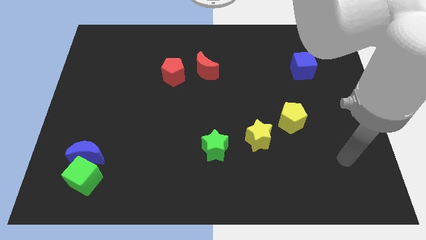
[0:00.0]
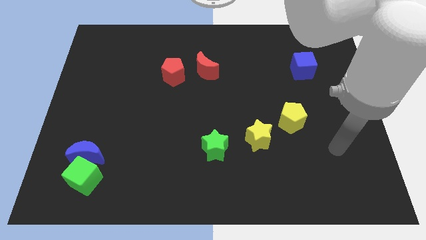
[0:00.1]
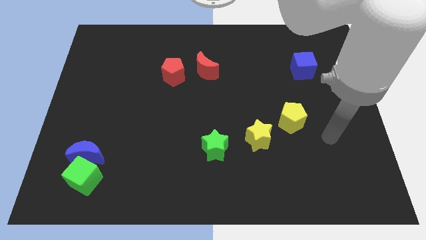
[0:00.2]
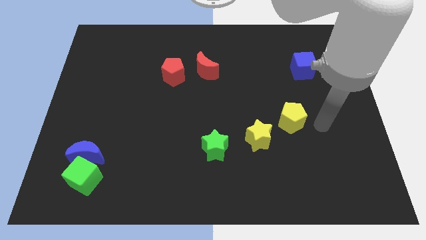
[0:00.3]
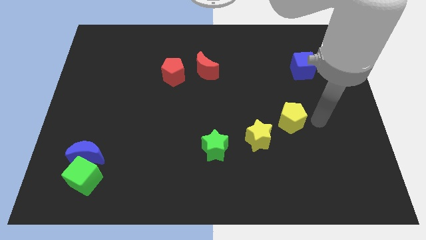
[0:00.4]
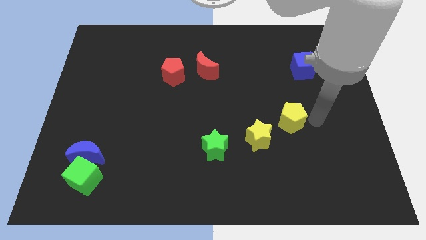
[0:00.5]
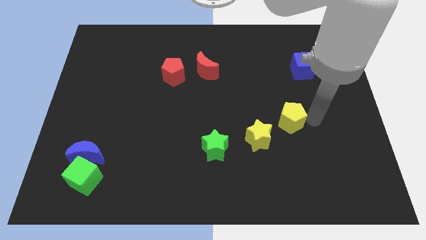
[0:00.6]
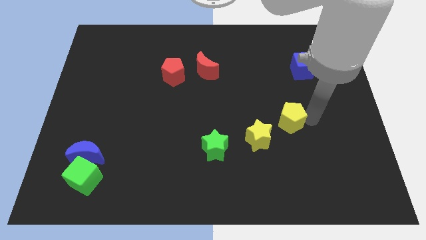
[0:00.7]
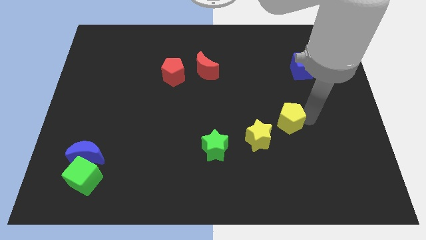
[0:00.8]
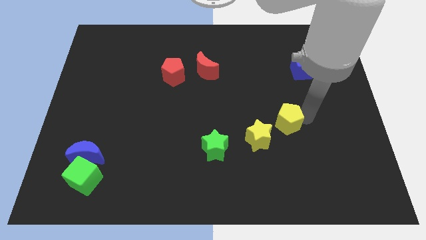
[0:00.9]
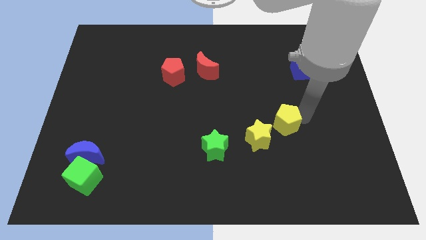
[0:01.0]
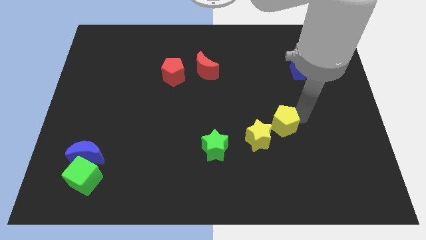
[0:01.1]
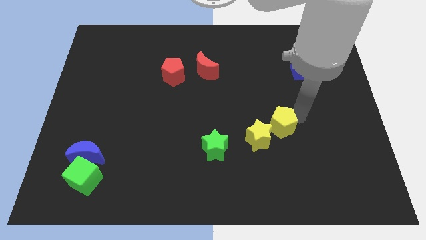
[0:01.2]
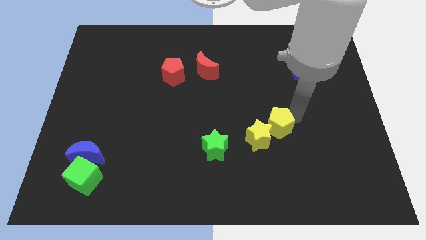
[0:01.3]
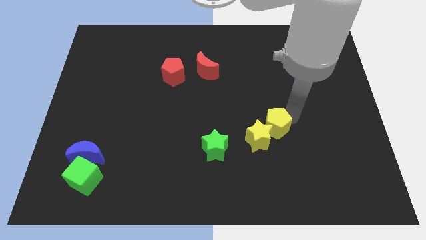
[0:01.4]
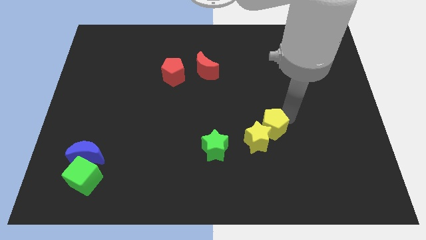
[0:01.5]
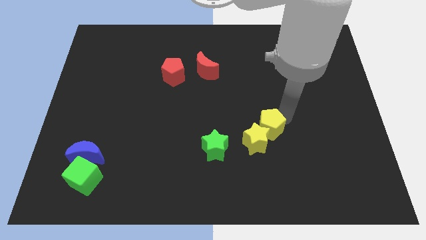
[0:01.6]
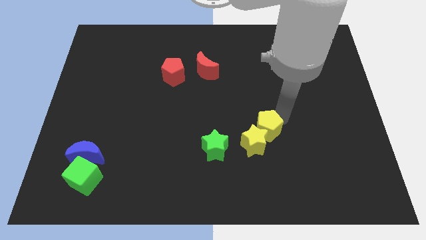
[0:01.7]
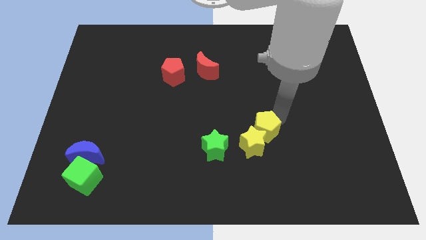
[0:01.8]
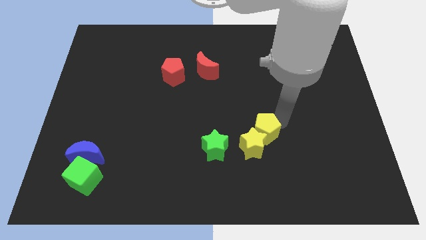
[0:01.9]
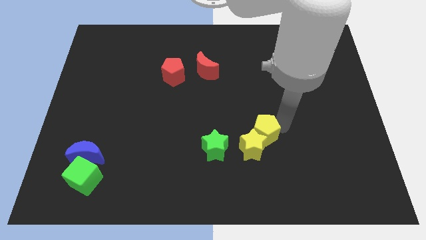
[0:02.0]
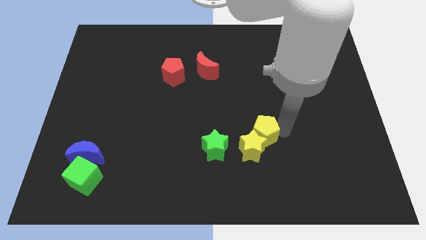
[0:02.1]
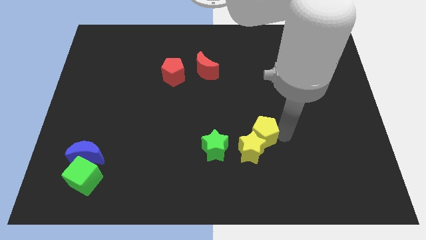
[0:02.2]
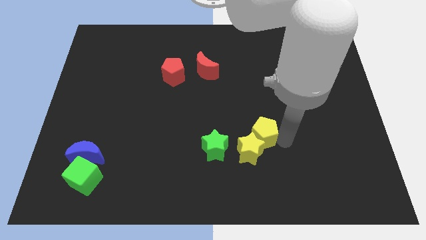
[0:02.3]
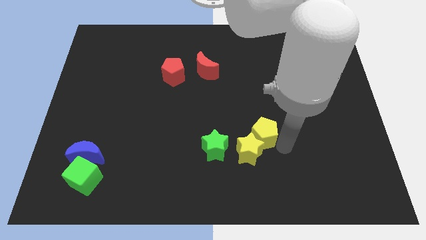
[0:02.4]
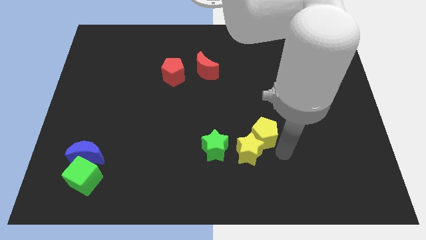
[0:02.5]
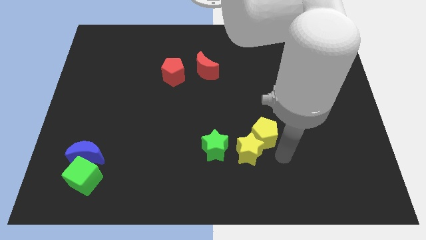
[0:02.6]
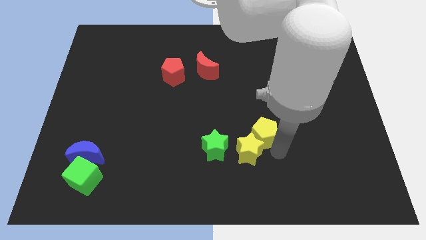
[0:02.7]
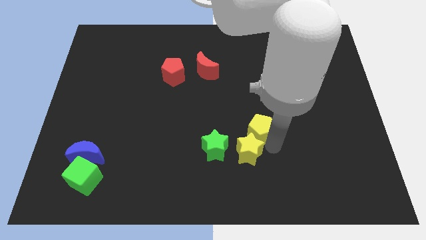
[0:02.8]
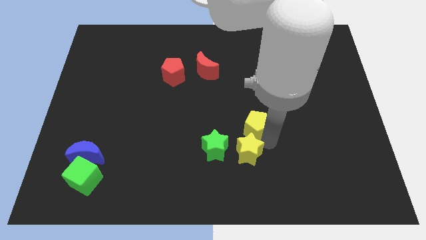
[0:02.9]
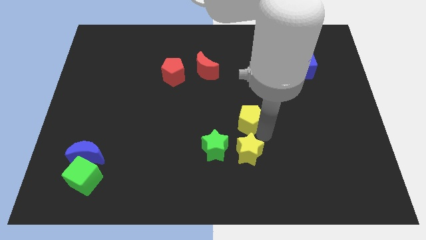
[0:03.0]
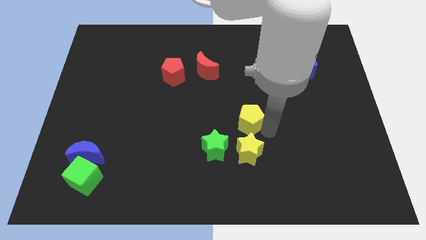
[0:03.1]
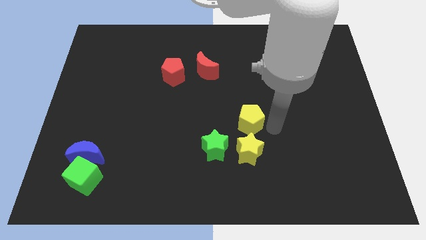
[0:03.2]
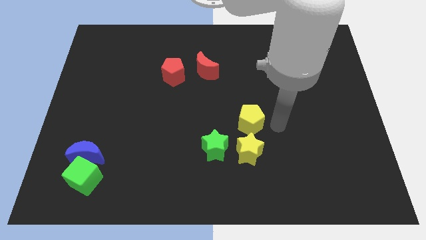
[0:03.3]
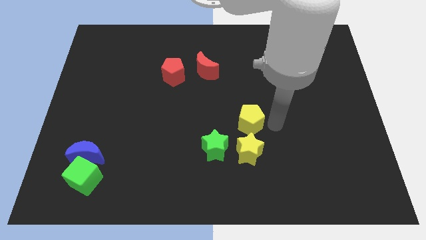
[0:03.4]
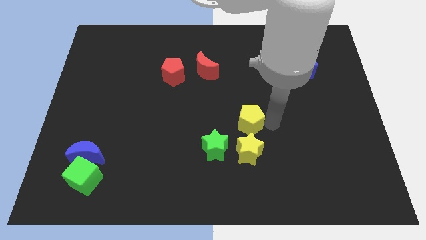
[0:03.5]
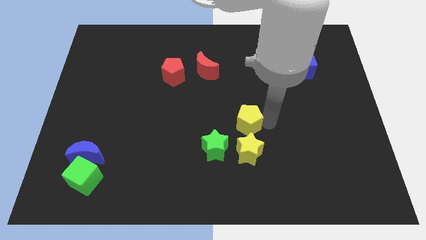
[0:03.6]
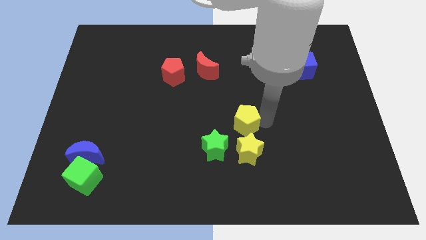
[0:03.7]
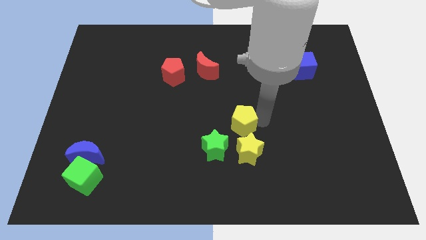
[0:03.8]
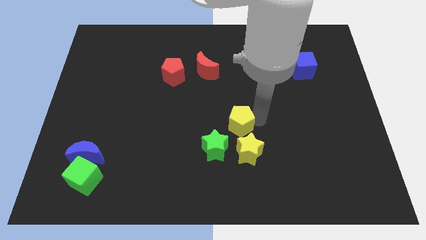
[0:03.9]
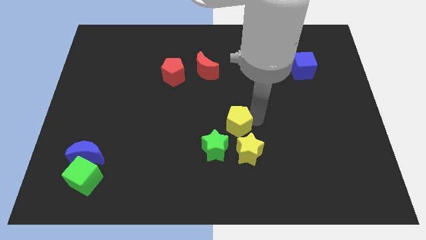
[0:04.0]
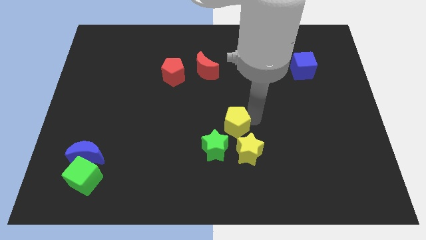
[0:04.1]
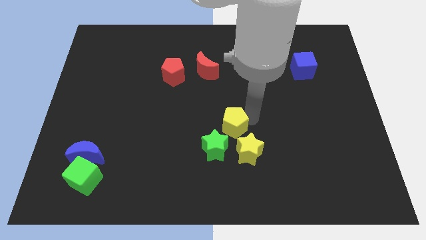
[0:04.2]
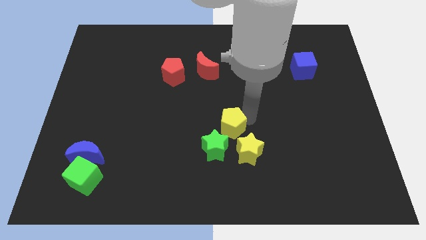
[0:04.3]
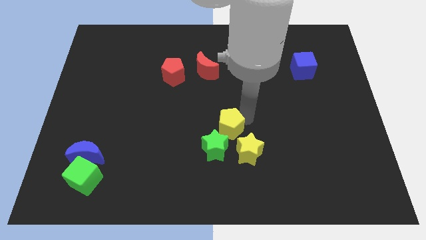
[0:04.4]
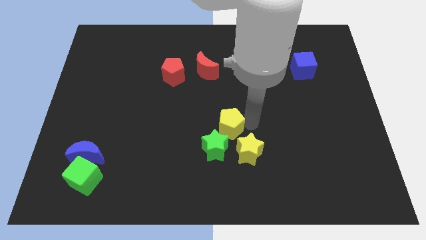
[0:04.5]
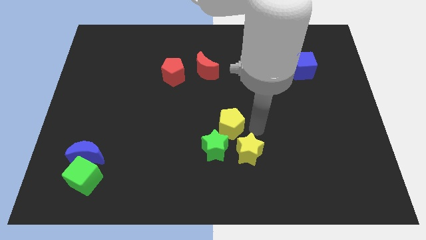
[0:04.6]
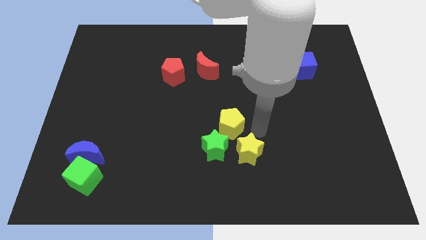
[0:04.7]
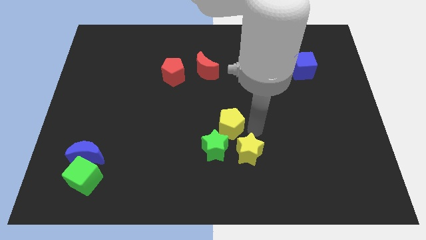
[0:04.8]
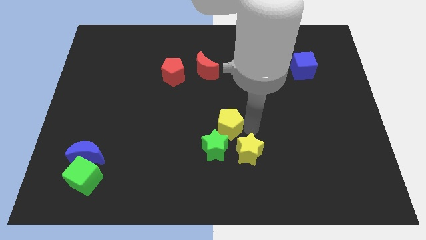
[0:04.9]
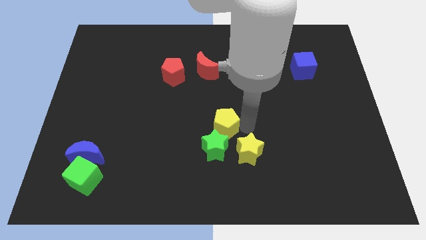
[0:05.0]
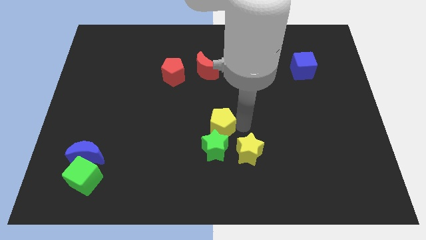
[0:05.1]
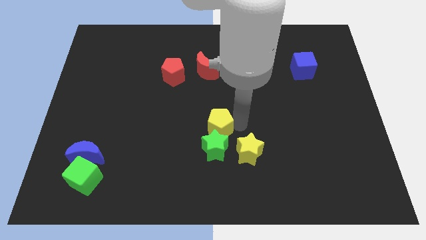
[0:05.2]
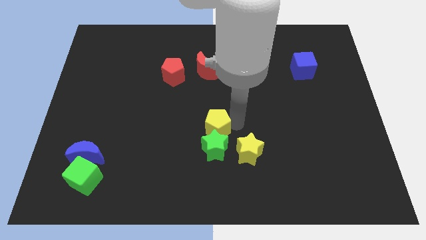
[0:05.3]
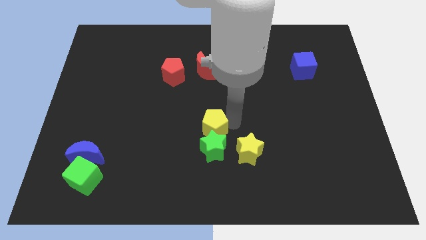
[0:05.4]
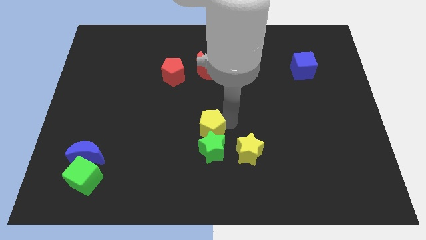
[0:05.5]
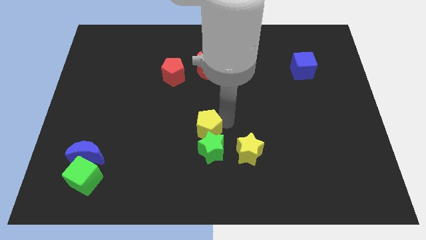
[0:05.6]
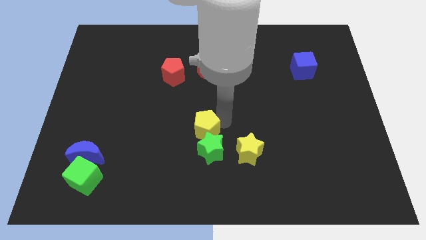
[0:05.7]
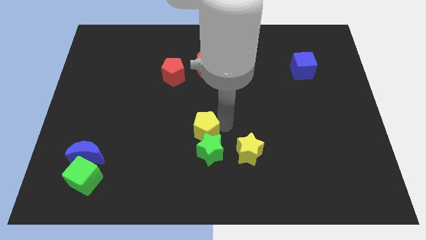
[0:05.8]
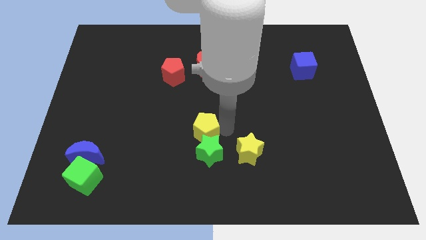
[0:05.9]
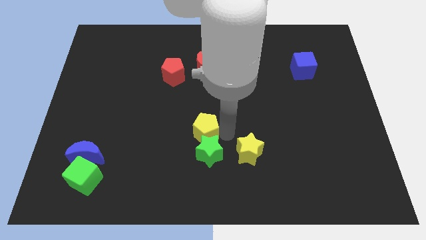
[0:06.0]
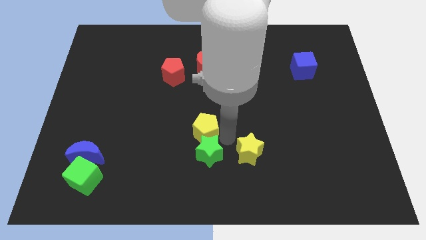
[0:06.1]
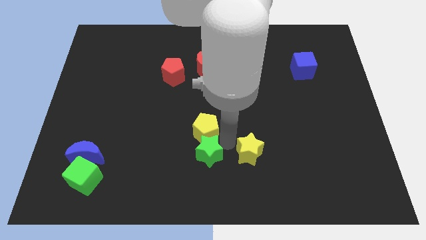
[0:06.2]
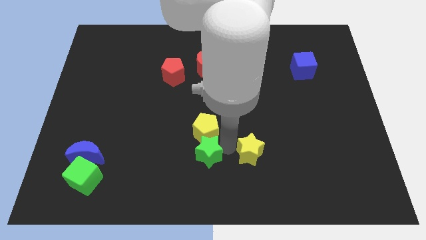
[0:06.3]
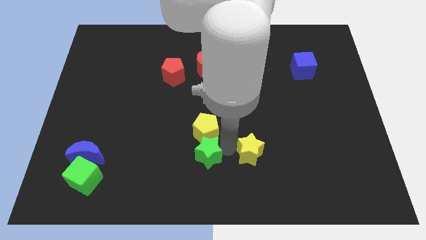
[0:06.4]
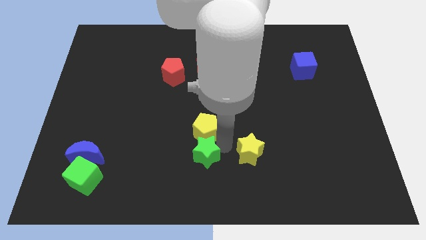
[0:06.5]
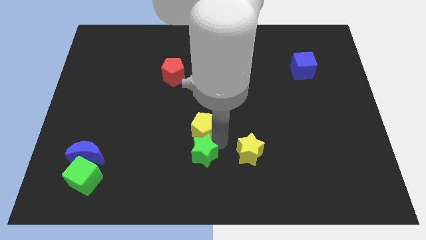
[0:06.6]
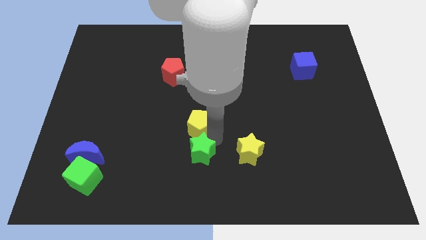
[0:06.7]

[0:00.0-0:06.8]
move the yellow pentagon left

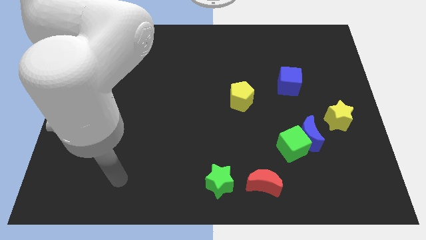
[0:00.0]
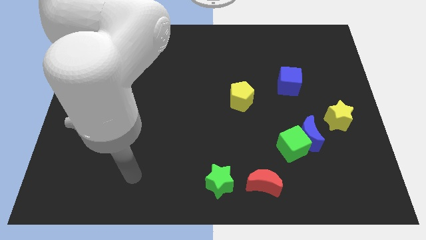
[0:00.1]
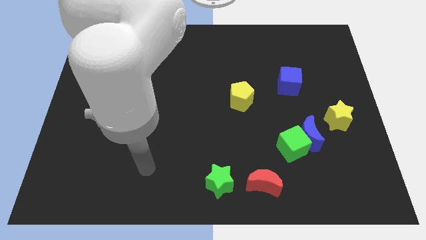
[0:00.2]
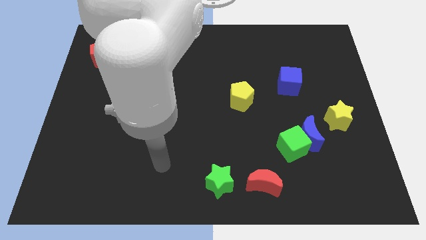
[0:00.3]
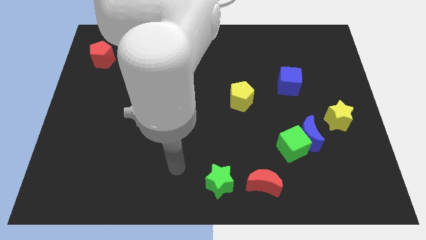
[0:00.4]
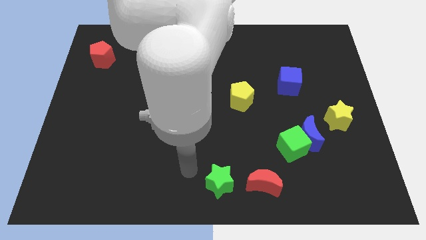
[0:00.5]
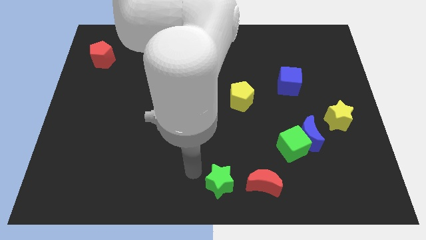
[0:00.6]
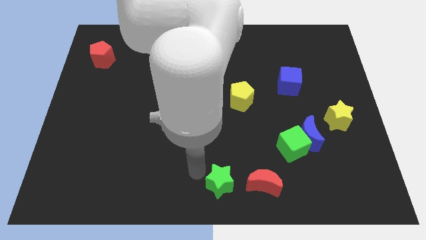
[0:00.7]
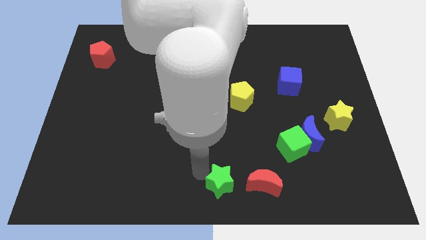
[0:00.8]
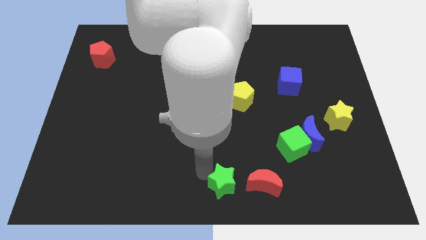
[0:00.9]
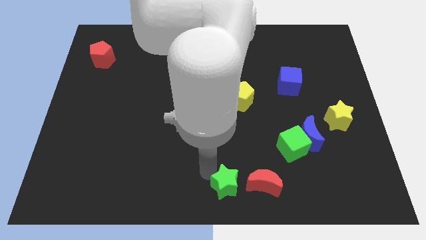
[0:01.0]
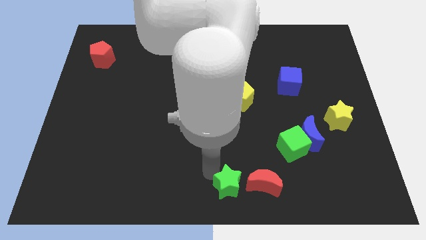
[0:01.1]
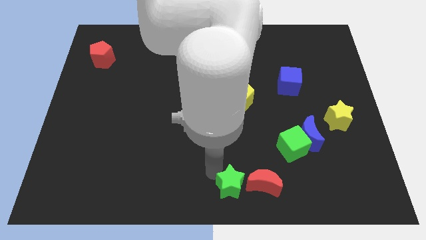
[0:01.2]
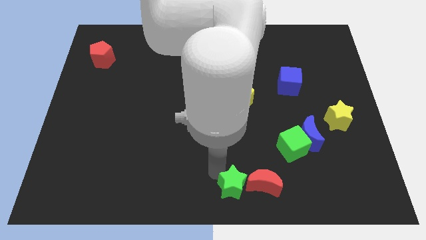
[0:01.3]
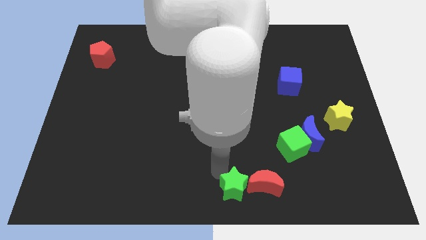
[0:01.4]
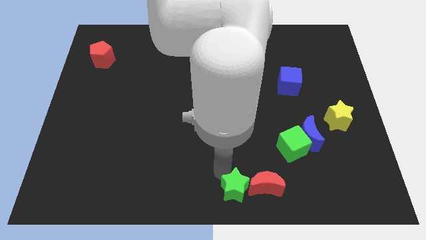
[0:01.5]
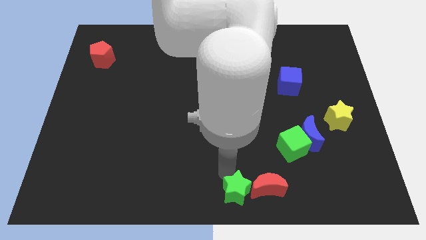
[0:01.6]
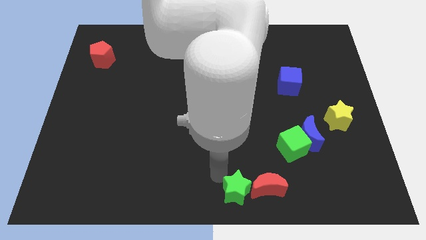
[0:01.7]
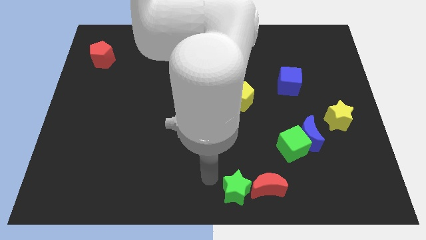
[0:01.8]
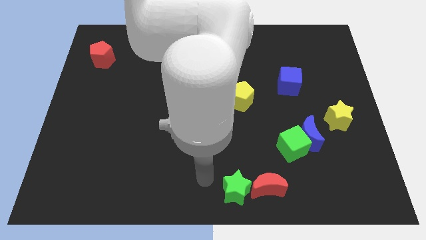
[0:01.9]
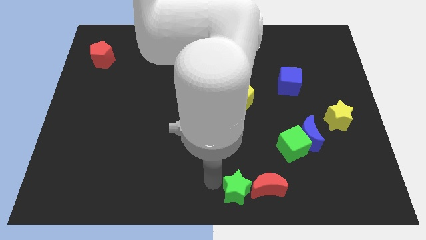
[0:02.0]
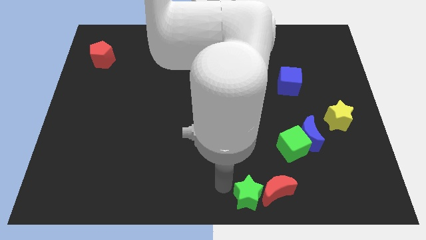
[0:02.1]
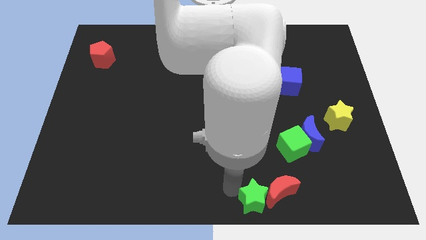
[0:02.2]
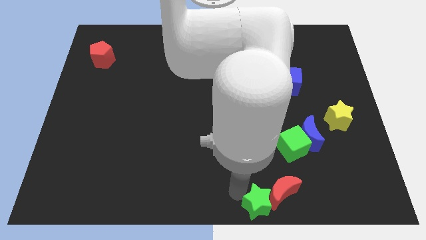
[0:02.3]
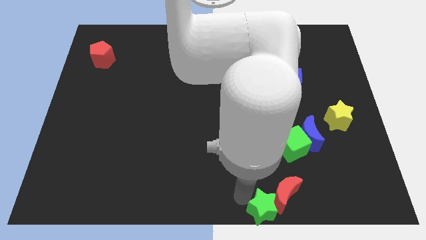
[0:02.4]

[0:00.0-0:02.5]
slide the green star a bit right
